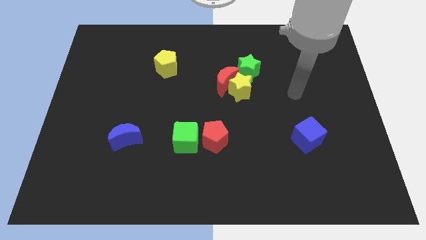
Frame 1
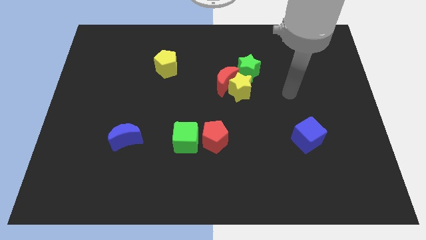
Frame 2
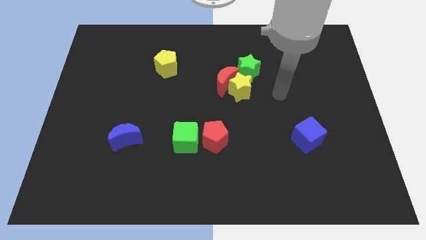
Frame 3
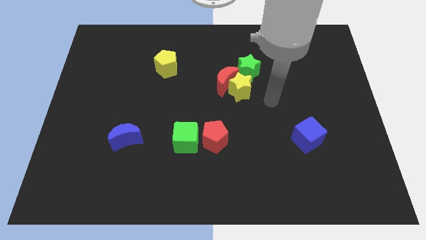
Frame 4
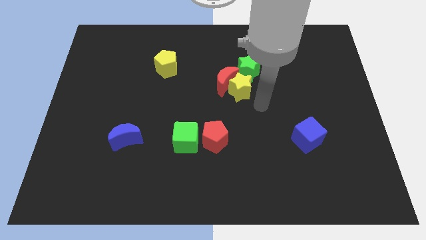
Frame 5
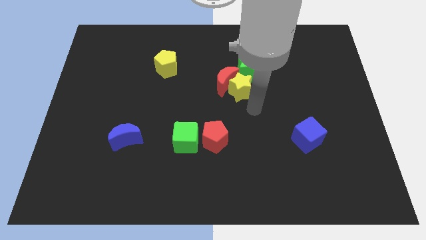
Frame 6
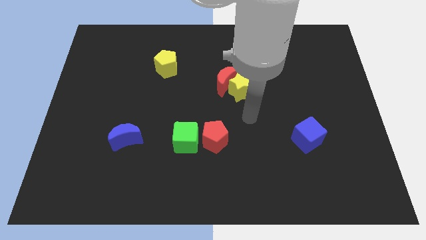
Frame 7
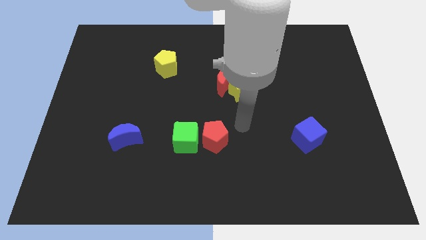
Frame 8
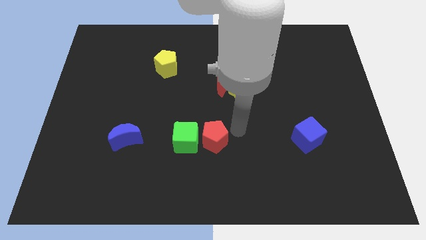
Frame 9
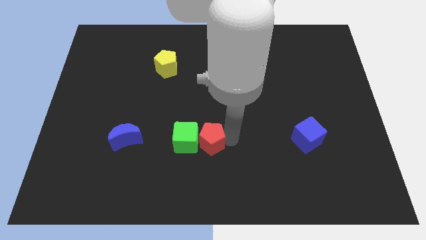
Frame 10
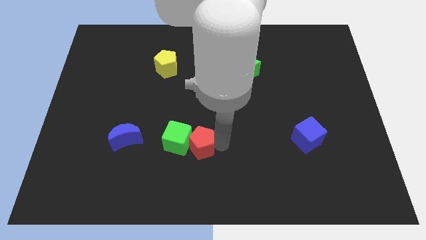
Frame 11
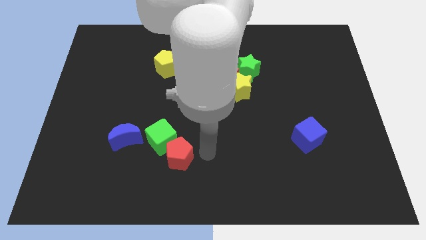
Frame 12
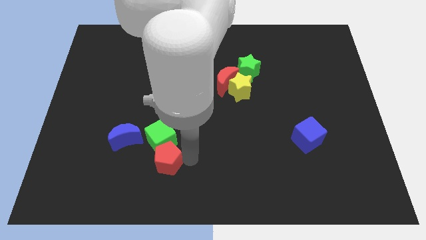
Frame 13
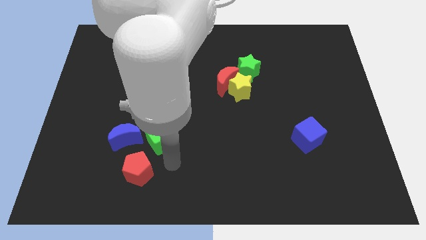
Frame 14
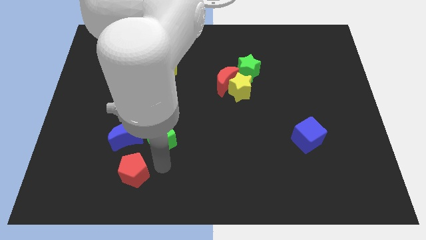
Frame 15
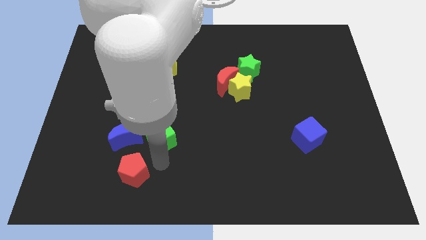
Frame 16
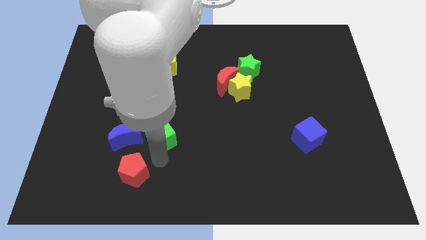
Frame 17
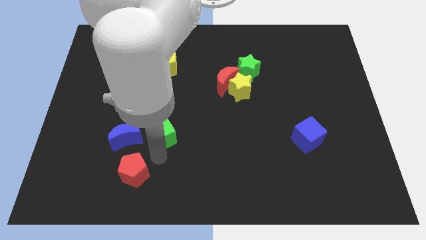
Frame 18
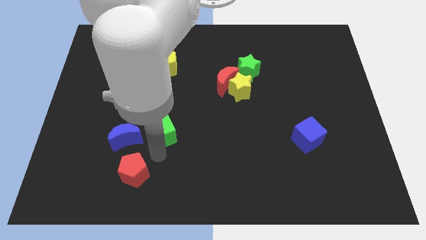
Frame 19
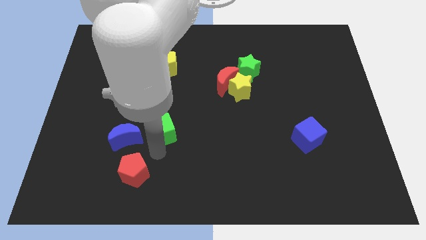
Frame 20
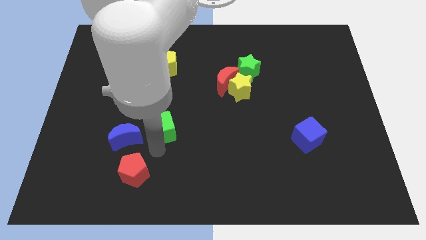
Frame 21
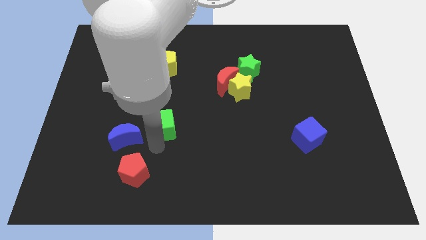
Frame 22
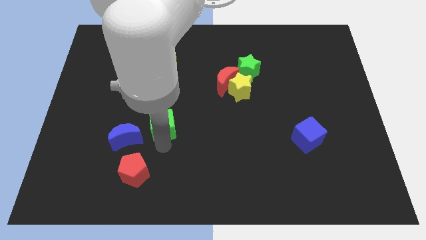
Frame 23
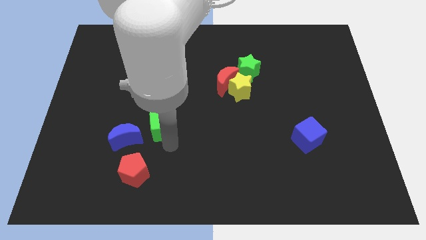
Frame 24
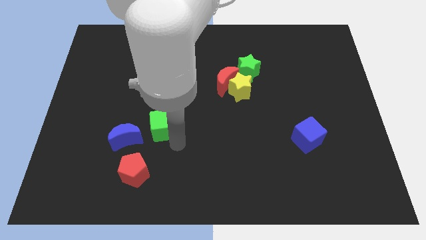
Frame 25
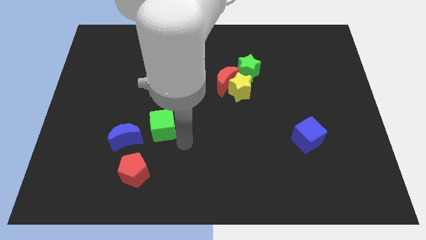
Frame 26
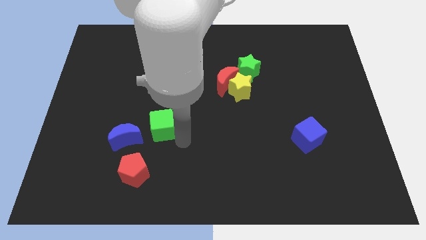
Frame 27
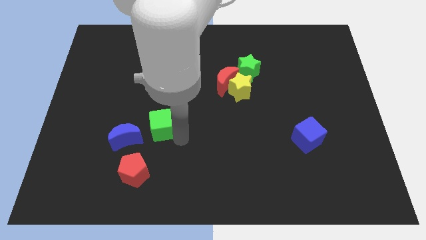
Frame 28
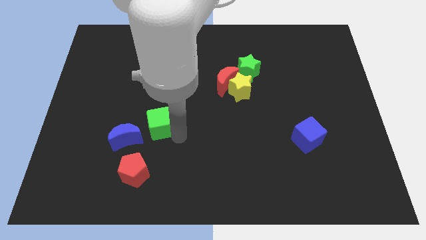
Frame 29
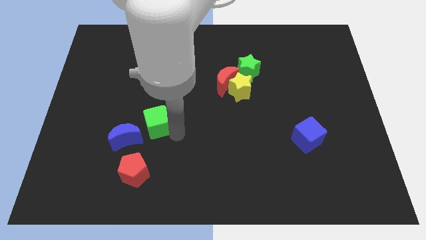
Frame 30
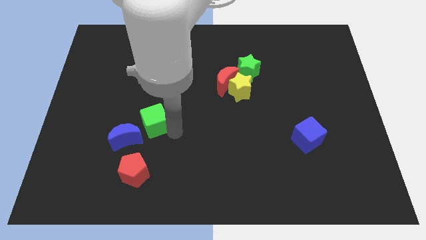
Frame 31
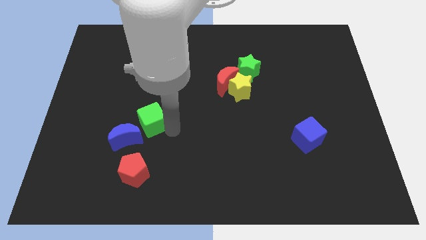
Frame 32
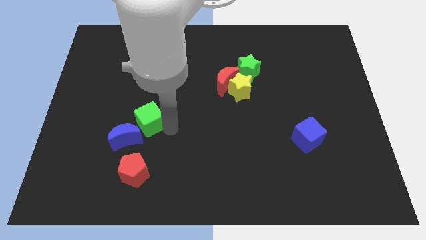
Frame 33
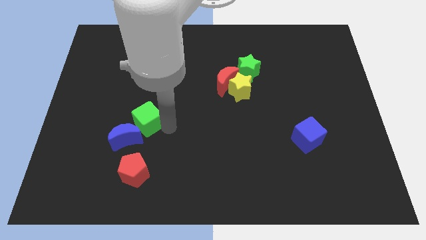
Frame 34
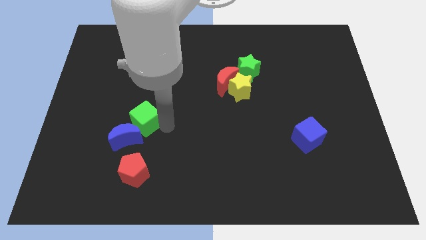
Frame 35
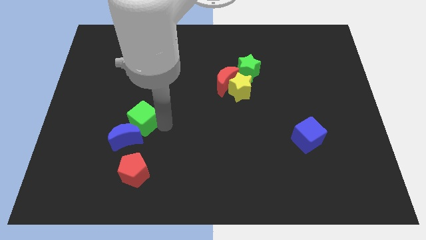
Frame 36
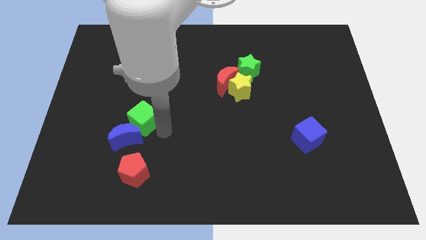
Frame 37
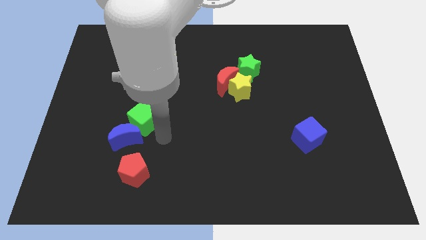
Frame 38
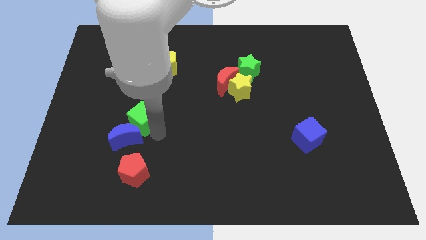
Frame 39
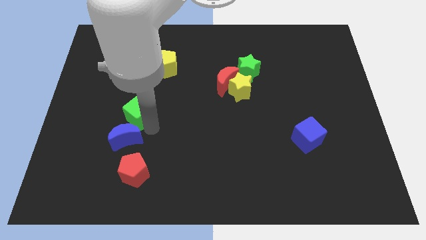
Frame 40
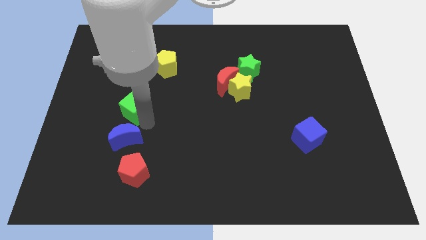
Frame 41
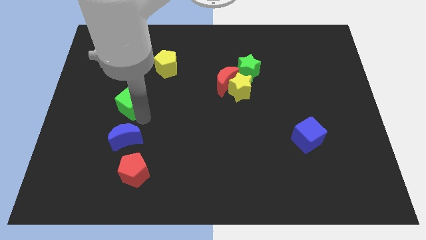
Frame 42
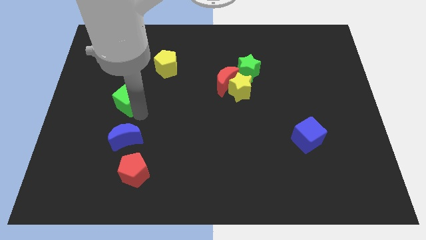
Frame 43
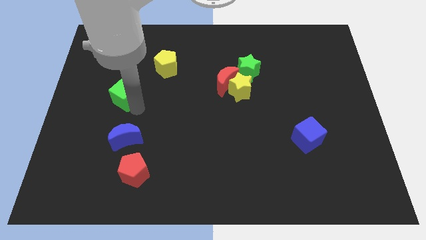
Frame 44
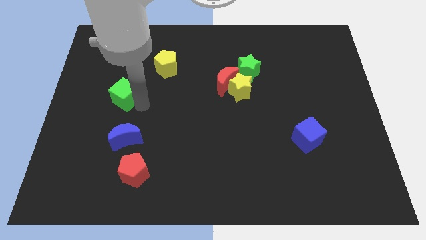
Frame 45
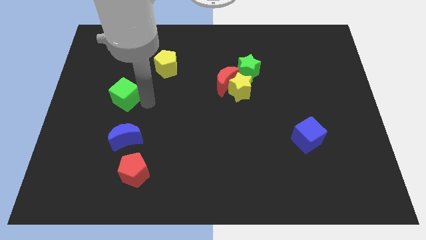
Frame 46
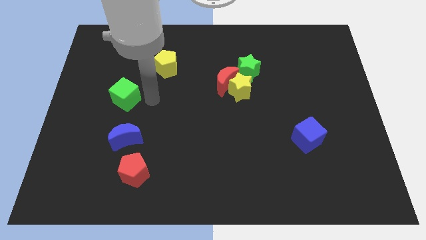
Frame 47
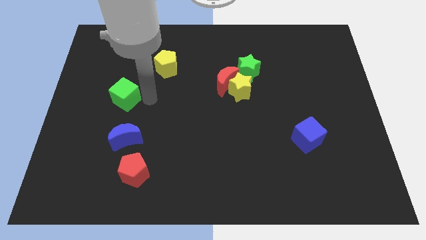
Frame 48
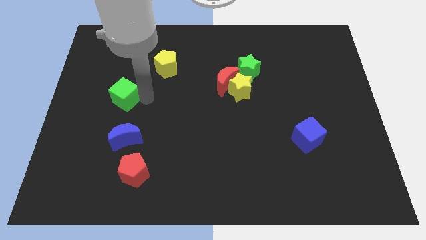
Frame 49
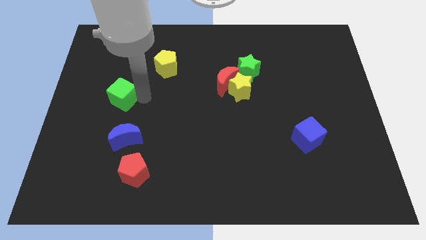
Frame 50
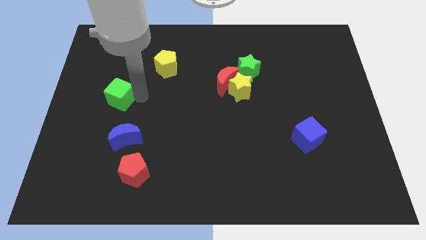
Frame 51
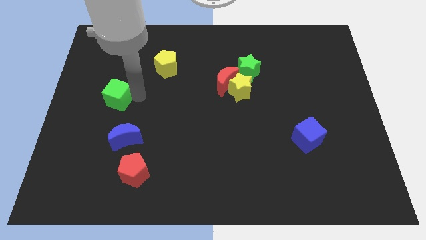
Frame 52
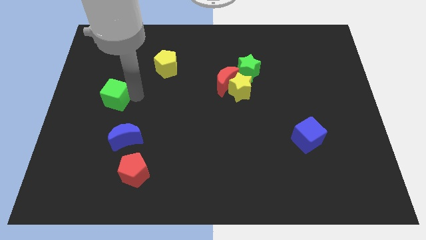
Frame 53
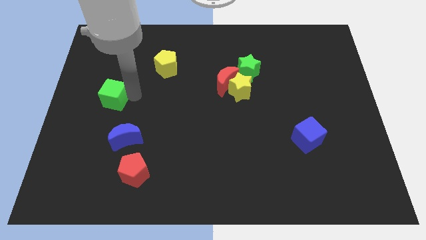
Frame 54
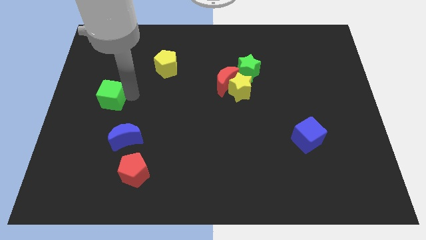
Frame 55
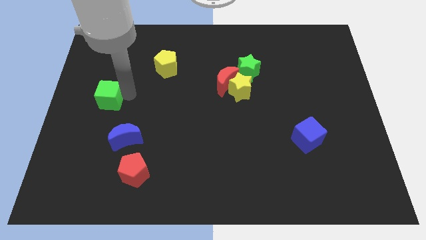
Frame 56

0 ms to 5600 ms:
put the green cube to the left side of the board

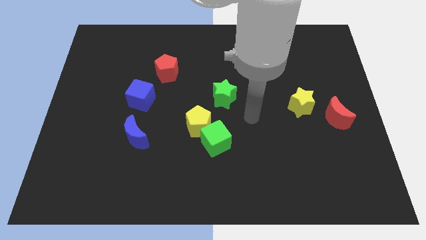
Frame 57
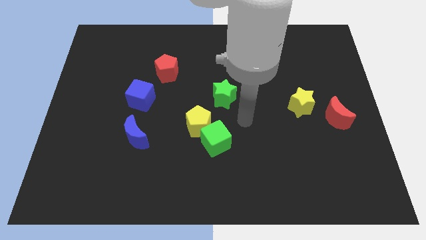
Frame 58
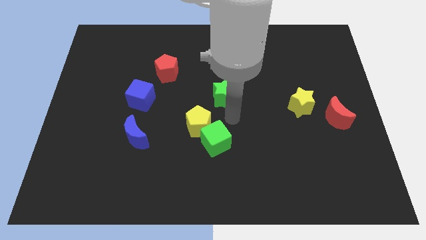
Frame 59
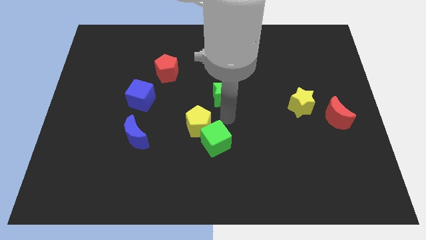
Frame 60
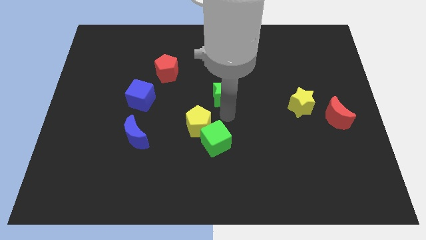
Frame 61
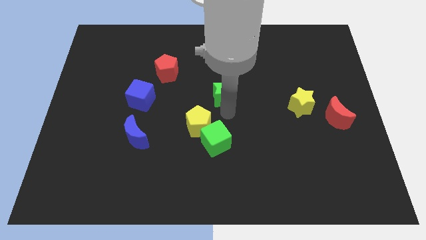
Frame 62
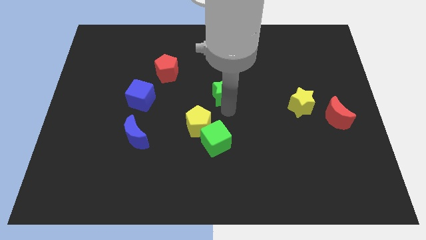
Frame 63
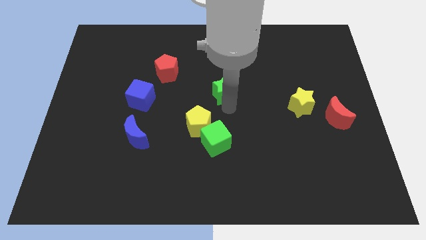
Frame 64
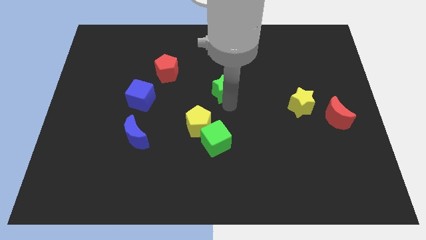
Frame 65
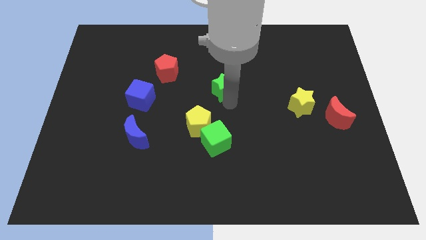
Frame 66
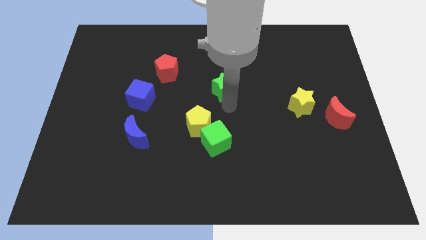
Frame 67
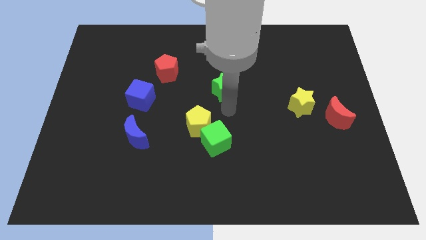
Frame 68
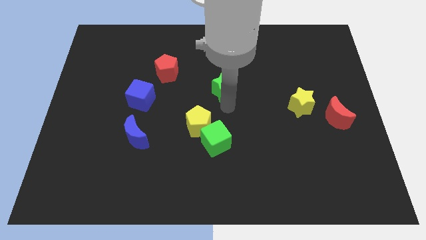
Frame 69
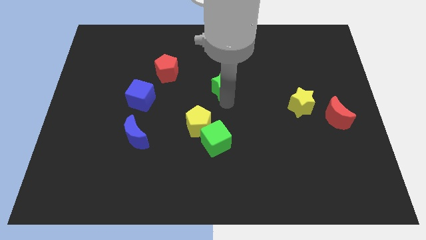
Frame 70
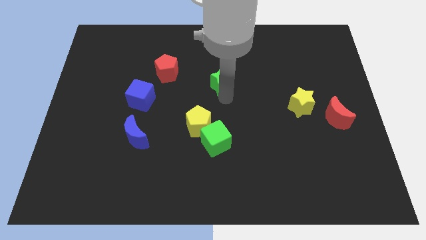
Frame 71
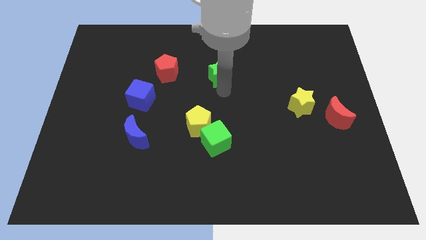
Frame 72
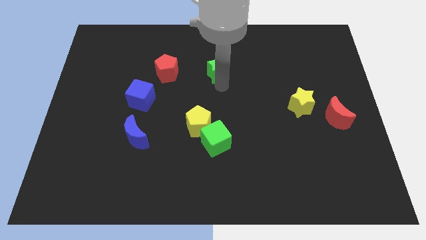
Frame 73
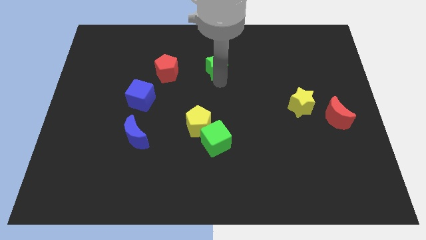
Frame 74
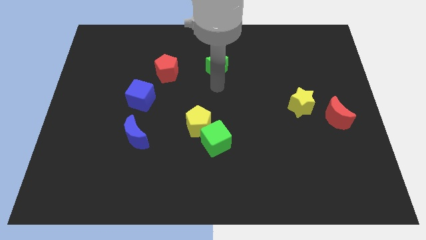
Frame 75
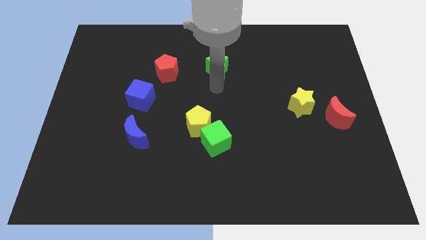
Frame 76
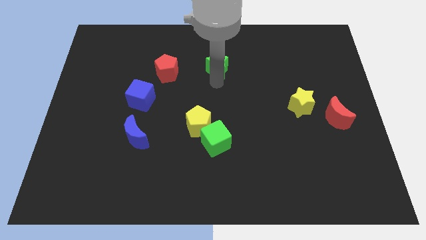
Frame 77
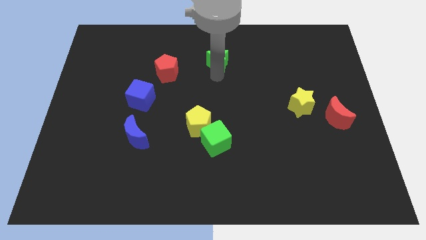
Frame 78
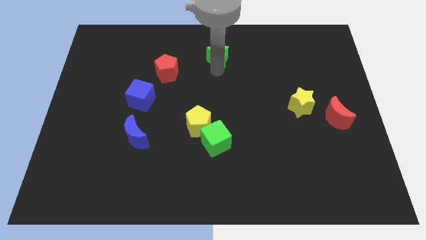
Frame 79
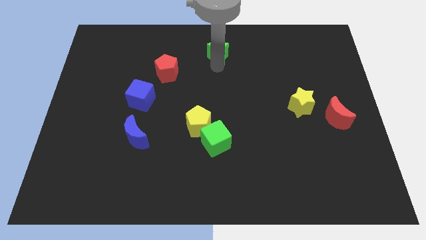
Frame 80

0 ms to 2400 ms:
push the green star to the top
